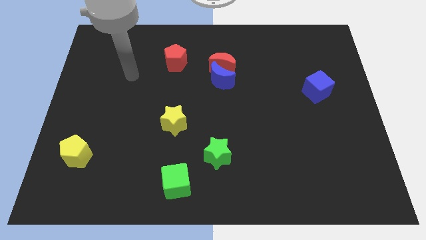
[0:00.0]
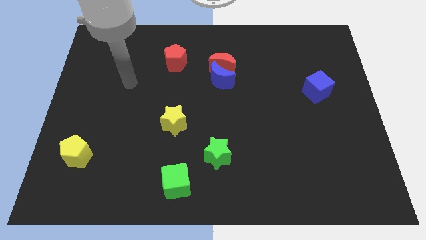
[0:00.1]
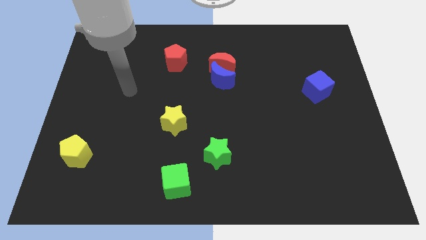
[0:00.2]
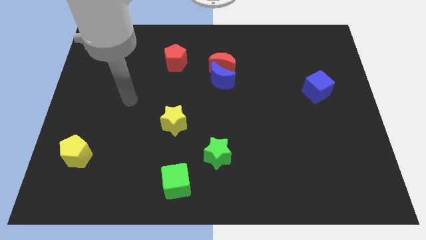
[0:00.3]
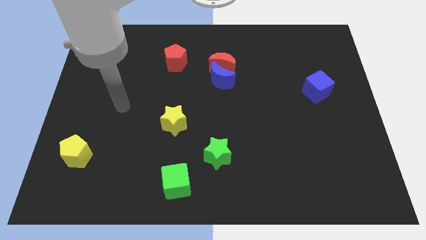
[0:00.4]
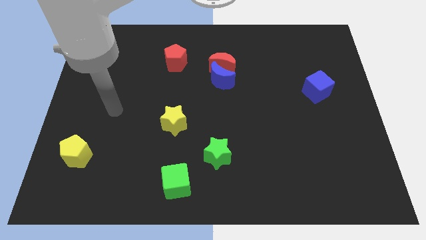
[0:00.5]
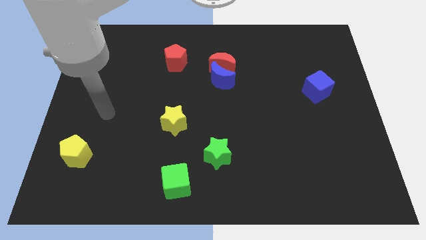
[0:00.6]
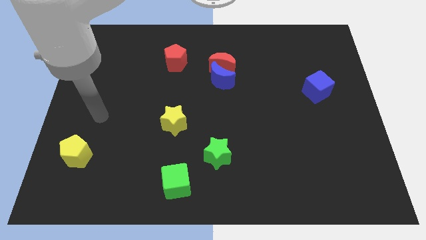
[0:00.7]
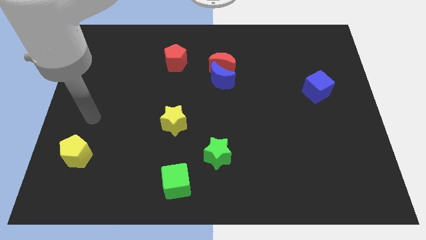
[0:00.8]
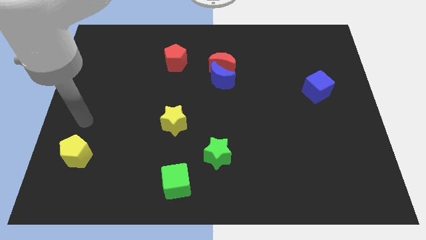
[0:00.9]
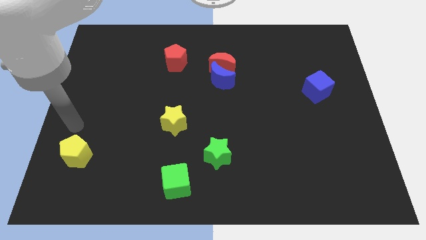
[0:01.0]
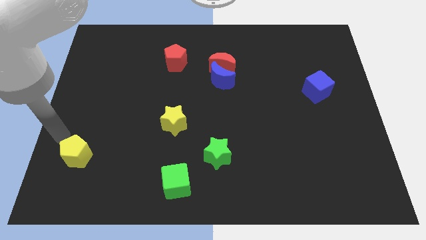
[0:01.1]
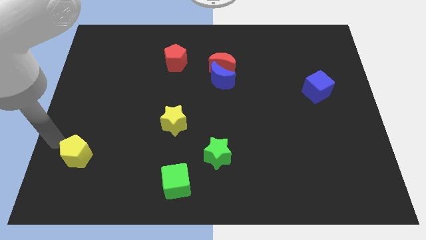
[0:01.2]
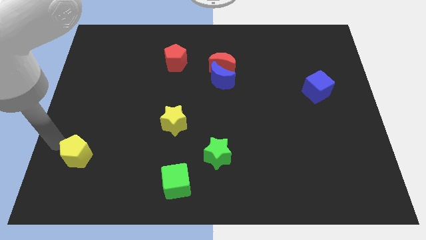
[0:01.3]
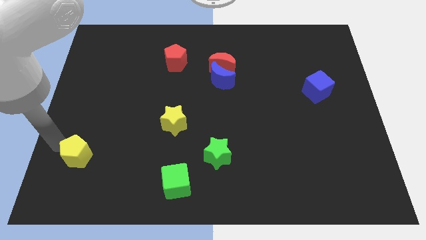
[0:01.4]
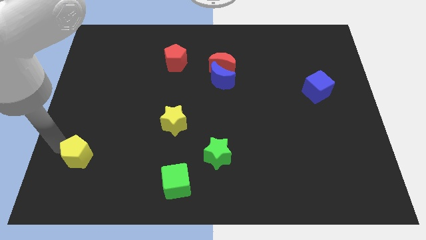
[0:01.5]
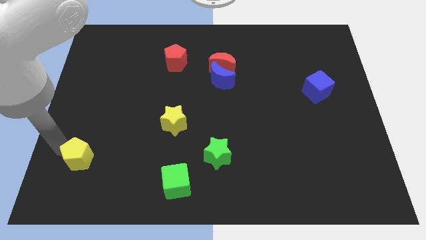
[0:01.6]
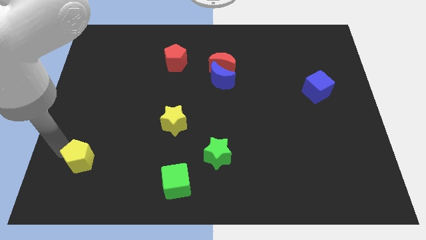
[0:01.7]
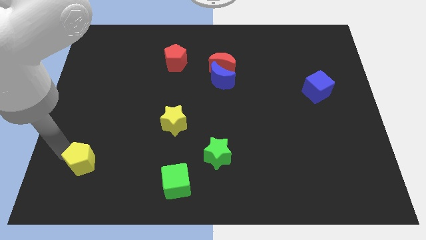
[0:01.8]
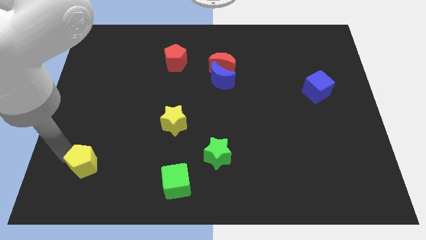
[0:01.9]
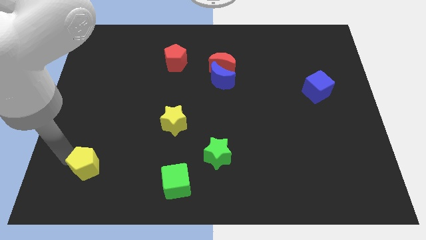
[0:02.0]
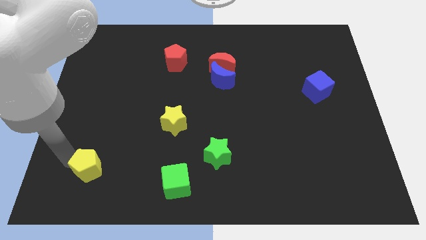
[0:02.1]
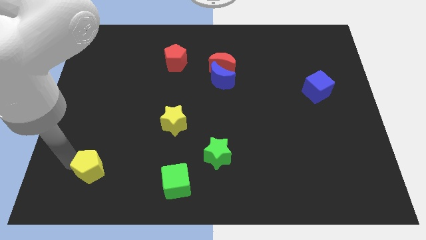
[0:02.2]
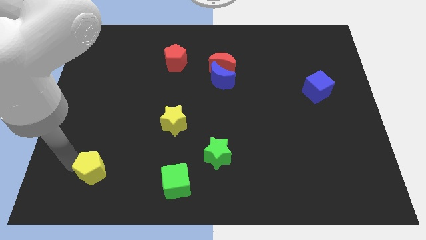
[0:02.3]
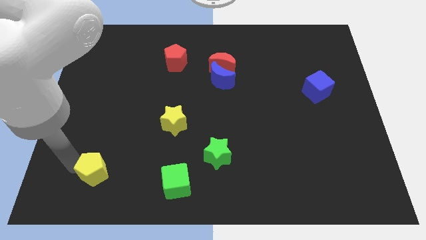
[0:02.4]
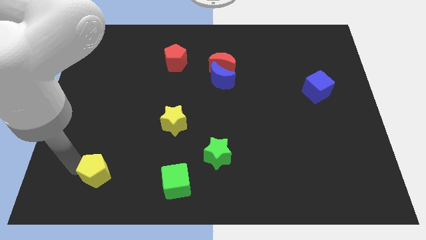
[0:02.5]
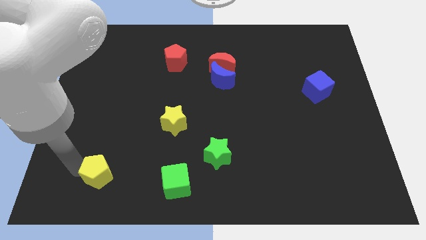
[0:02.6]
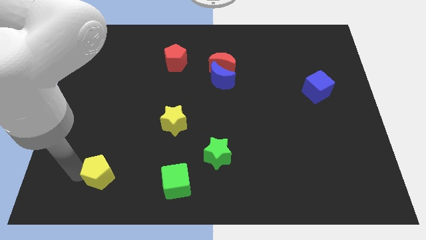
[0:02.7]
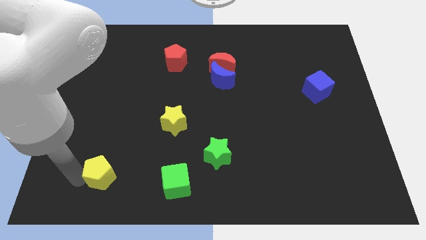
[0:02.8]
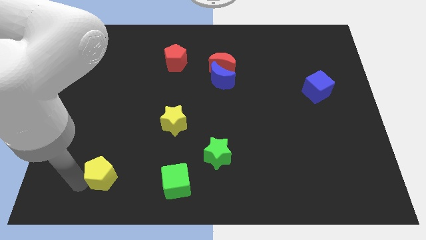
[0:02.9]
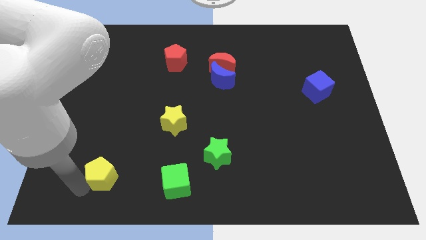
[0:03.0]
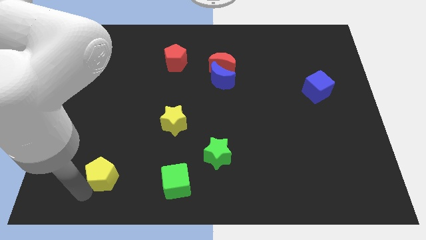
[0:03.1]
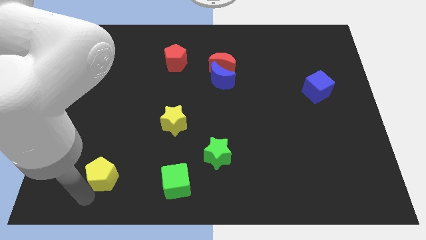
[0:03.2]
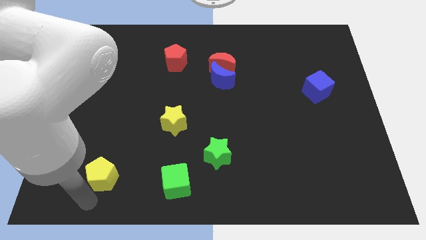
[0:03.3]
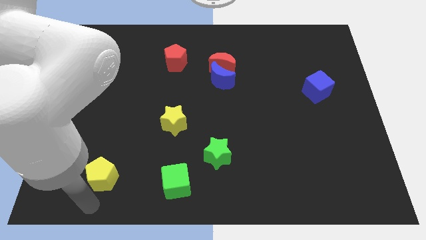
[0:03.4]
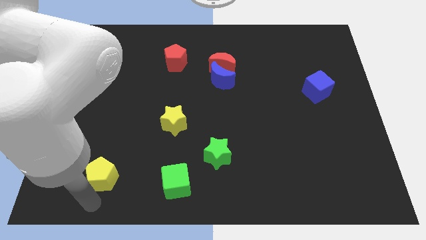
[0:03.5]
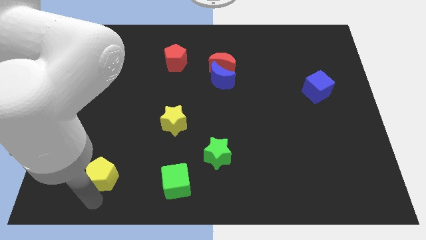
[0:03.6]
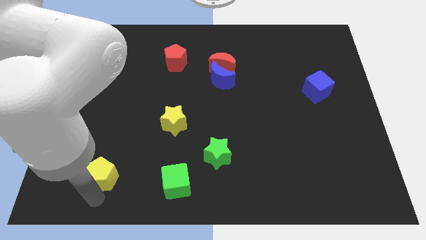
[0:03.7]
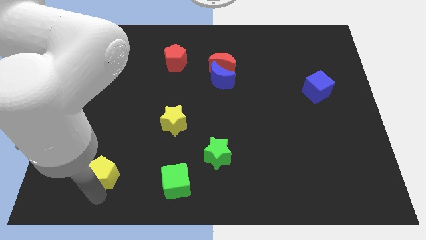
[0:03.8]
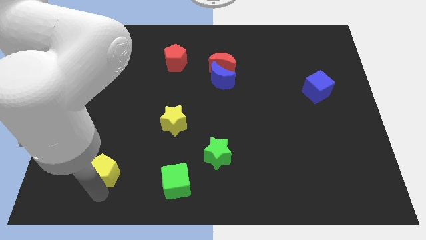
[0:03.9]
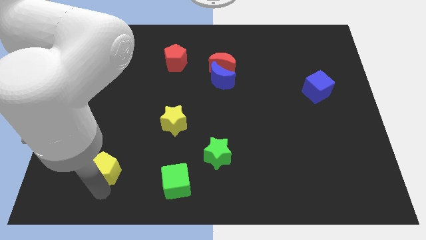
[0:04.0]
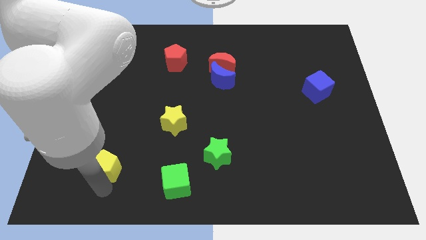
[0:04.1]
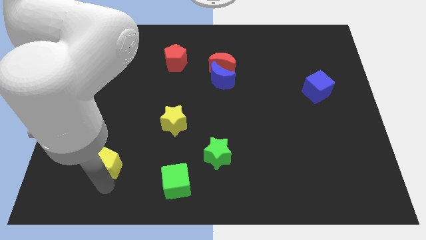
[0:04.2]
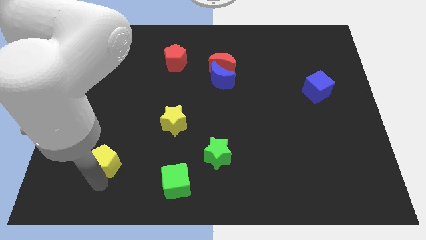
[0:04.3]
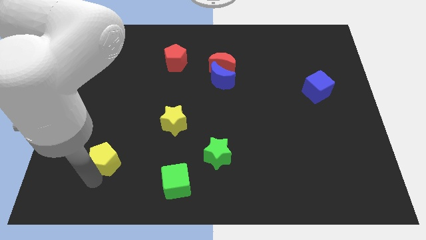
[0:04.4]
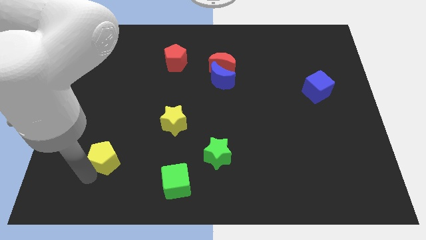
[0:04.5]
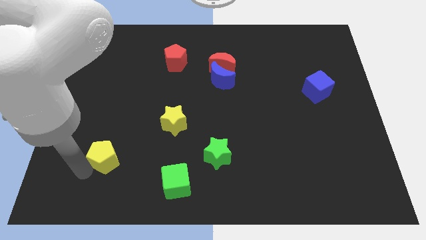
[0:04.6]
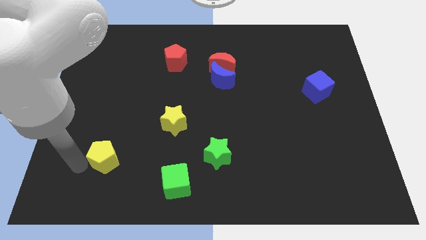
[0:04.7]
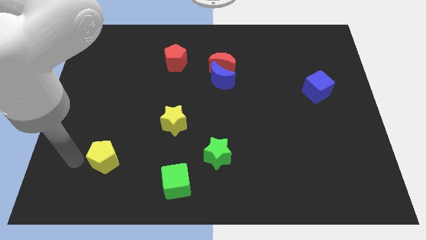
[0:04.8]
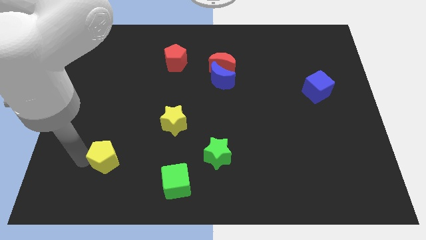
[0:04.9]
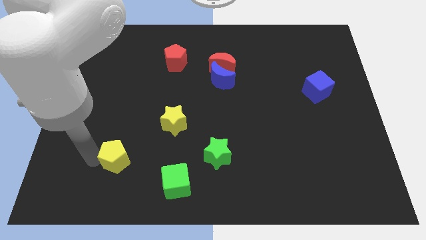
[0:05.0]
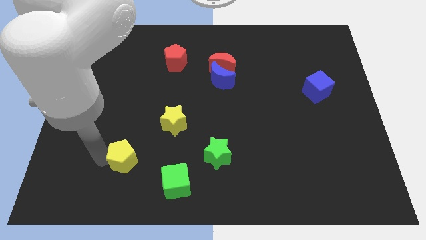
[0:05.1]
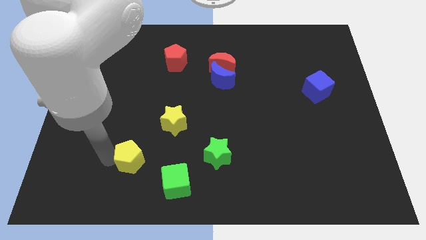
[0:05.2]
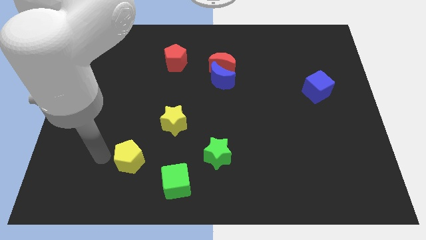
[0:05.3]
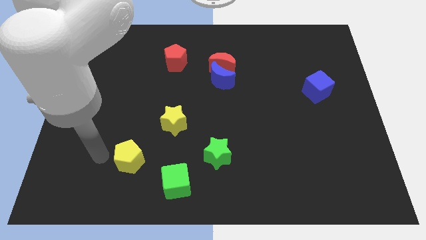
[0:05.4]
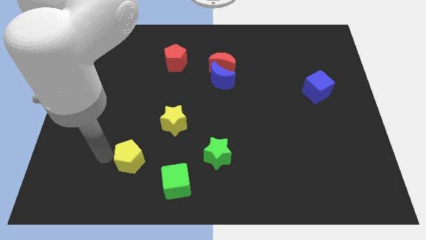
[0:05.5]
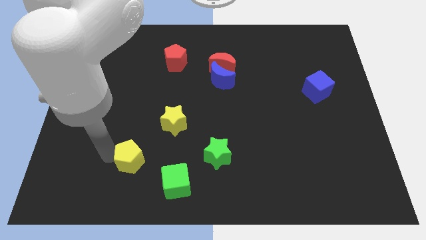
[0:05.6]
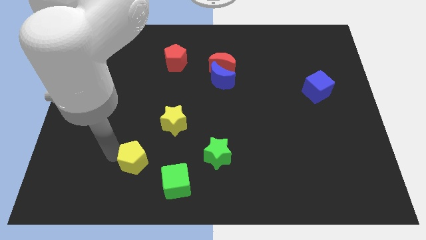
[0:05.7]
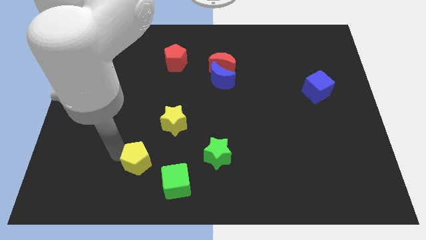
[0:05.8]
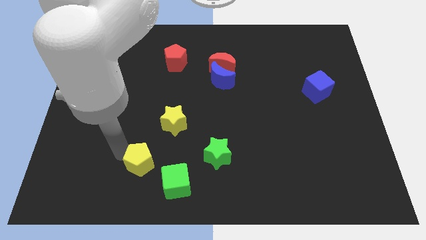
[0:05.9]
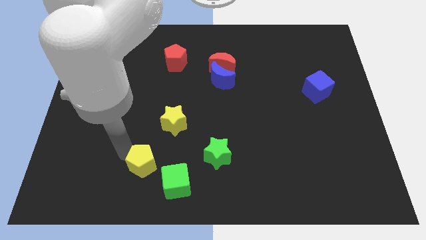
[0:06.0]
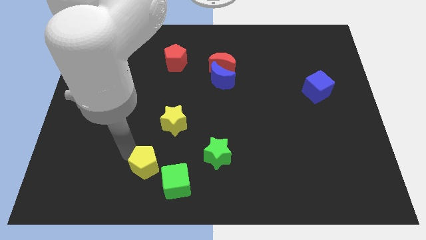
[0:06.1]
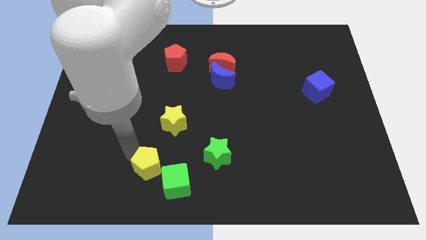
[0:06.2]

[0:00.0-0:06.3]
move the yellow pentagon to the bottom side of the yellow star

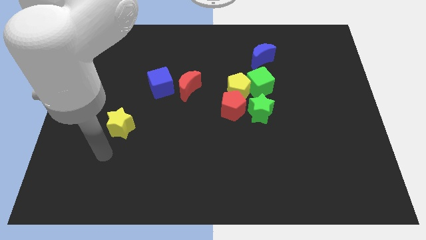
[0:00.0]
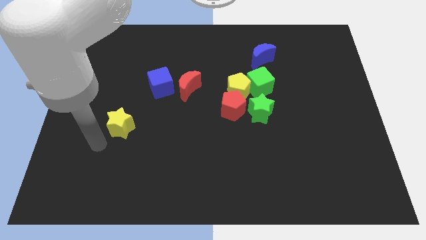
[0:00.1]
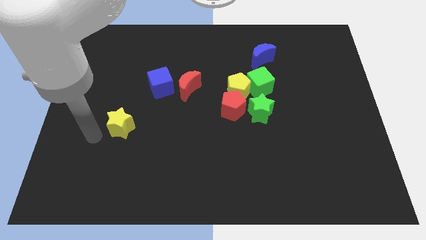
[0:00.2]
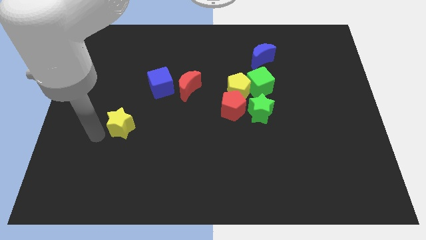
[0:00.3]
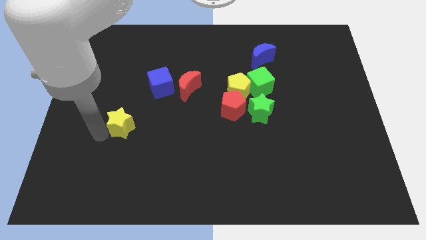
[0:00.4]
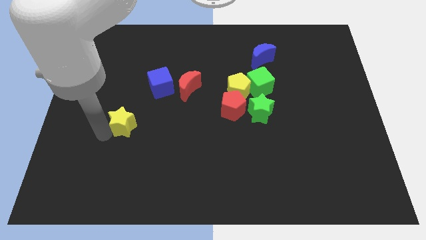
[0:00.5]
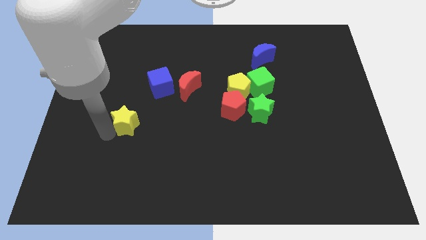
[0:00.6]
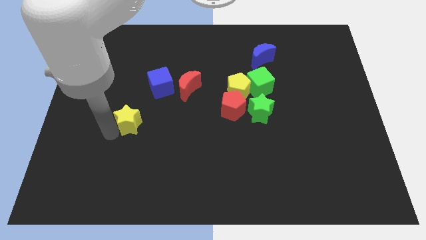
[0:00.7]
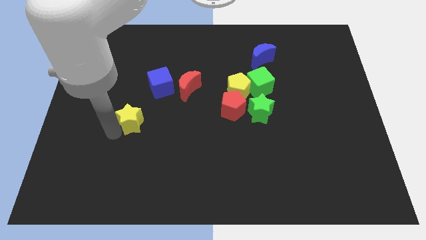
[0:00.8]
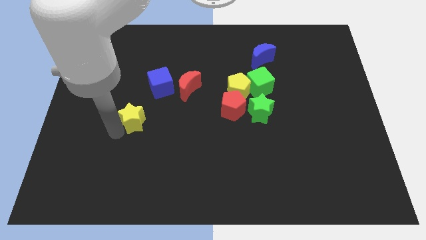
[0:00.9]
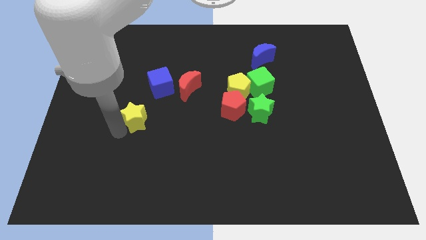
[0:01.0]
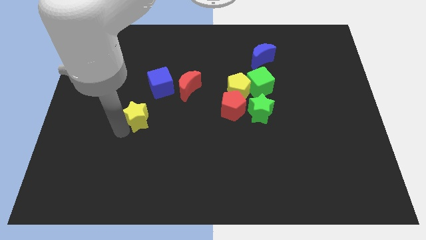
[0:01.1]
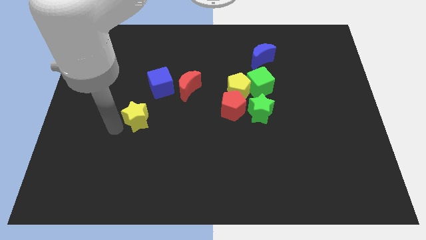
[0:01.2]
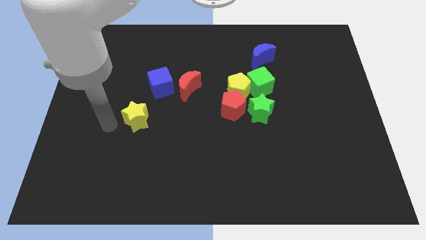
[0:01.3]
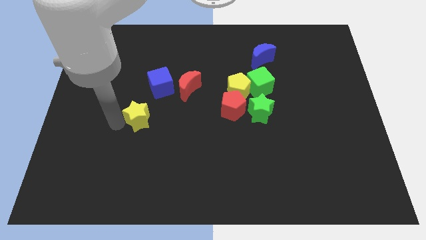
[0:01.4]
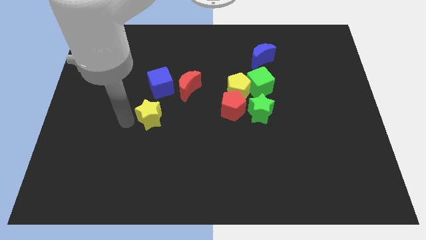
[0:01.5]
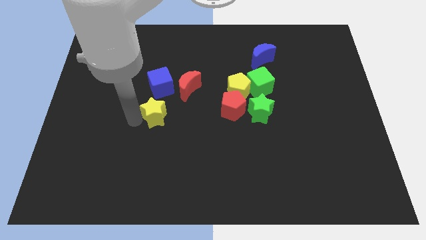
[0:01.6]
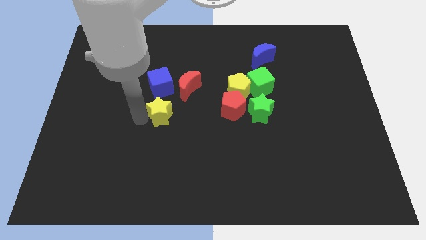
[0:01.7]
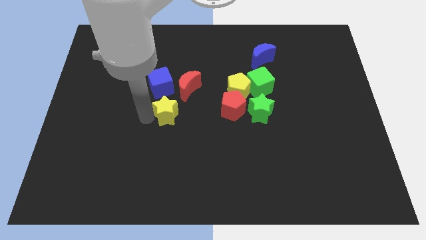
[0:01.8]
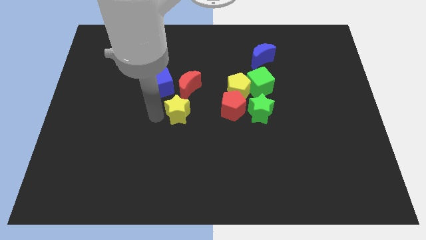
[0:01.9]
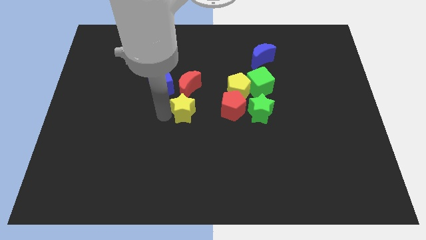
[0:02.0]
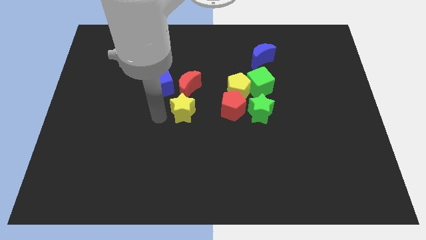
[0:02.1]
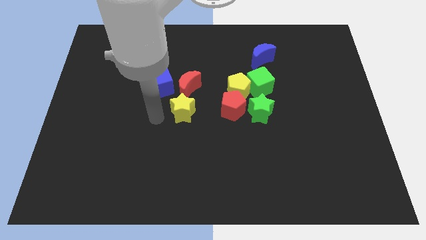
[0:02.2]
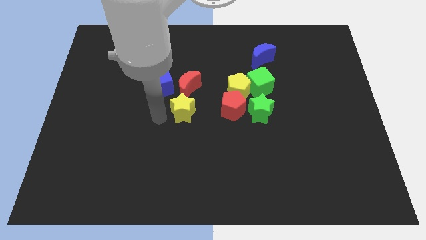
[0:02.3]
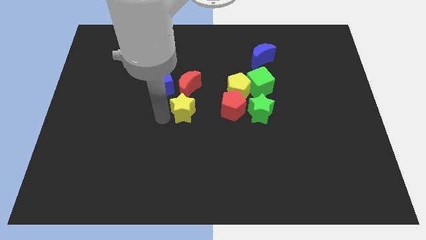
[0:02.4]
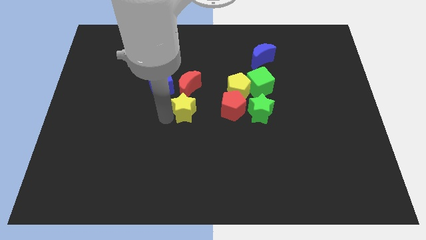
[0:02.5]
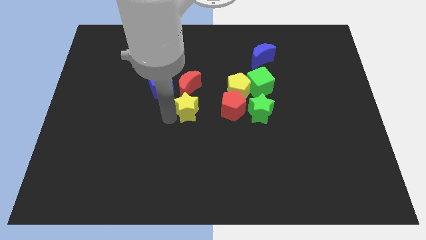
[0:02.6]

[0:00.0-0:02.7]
put the yellow star to the bottom right side of the red moon
